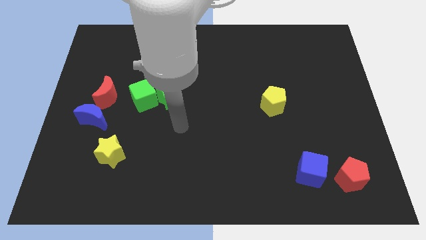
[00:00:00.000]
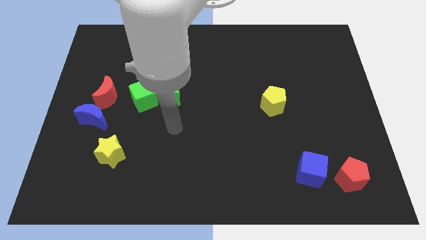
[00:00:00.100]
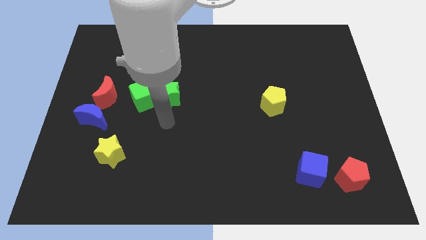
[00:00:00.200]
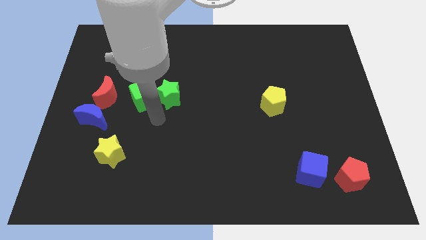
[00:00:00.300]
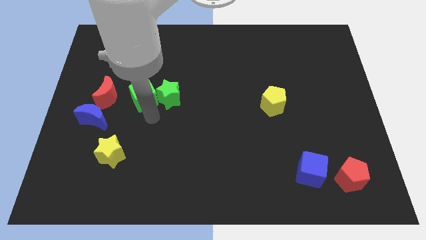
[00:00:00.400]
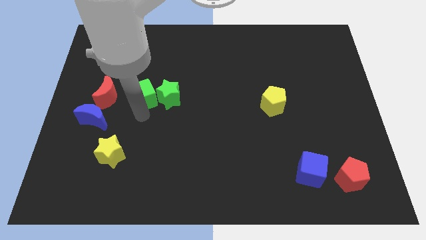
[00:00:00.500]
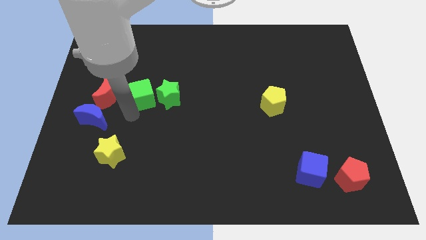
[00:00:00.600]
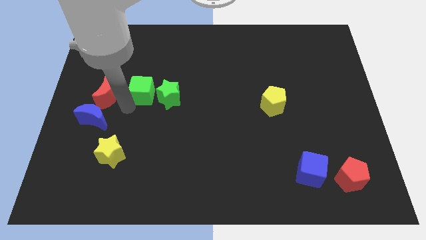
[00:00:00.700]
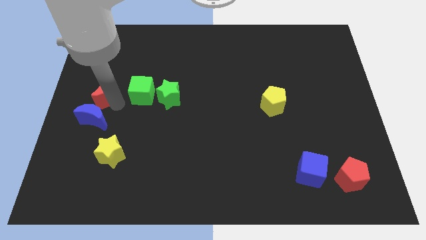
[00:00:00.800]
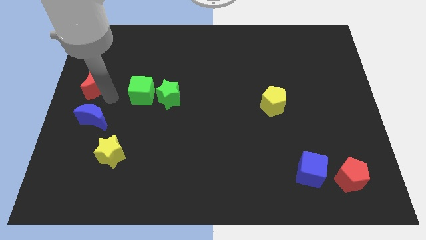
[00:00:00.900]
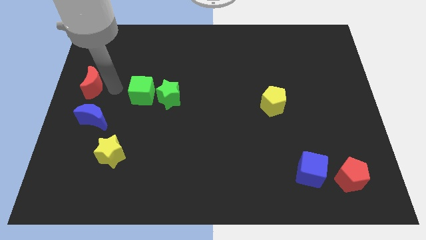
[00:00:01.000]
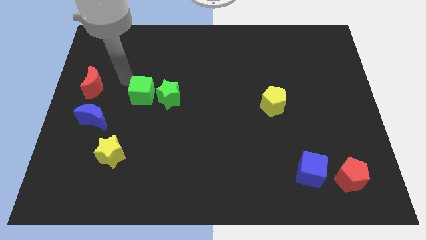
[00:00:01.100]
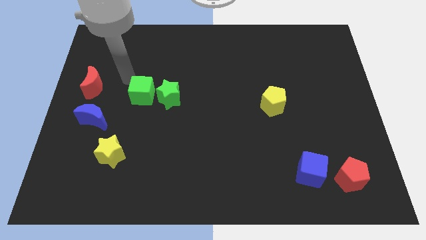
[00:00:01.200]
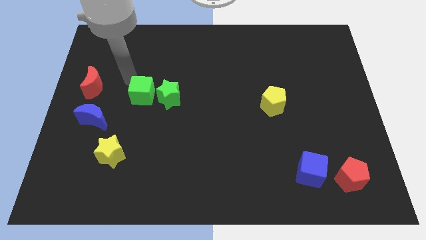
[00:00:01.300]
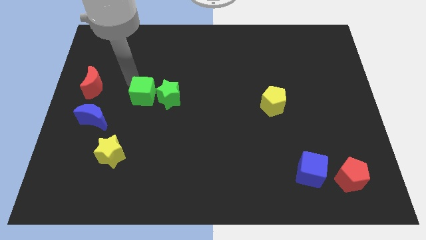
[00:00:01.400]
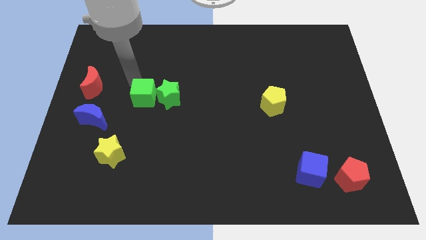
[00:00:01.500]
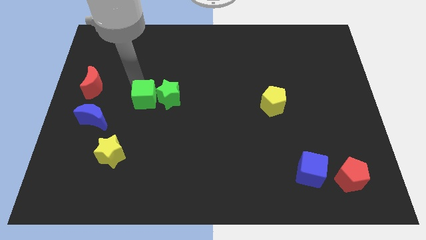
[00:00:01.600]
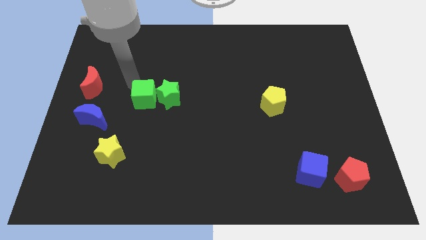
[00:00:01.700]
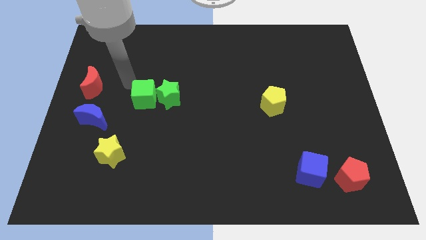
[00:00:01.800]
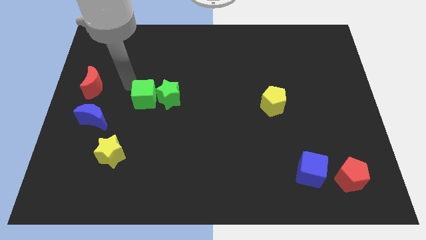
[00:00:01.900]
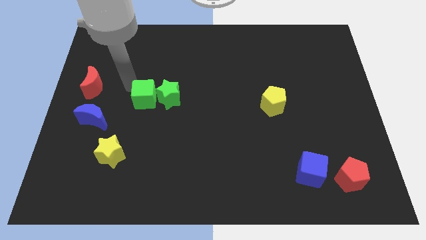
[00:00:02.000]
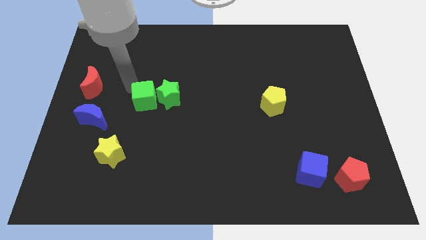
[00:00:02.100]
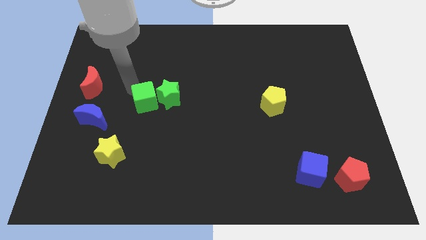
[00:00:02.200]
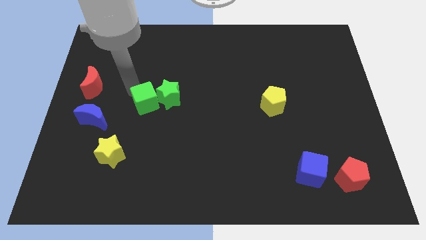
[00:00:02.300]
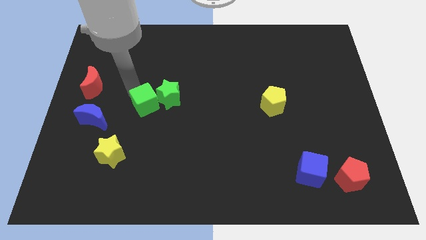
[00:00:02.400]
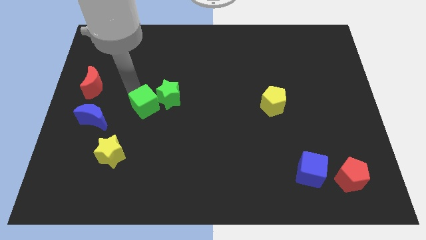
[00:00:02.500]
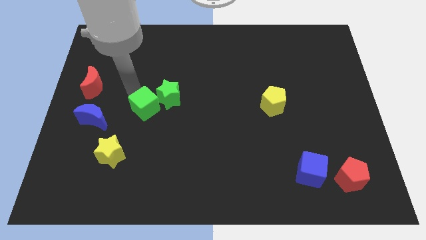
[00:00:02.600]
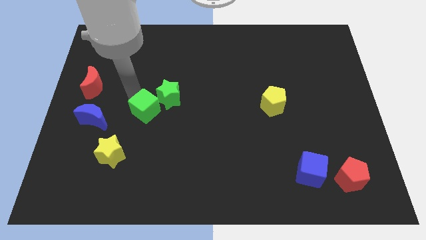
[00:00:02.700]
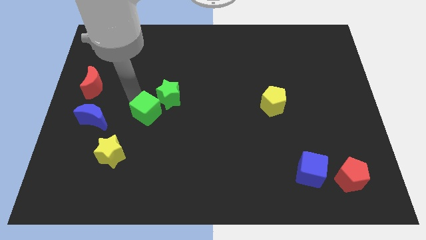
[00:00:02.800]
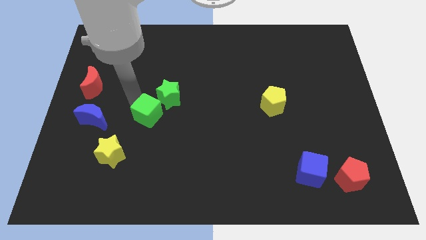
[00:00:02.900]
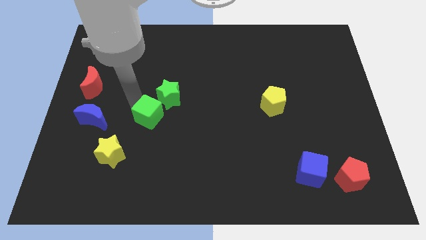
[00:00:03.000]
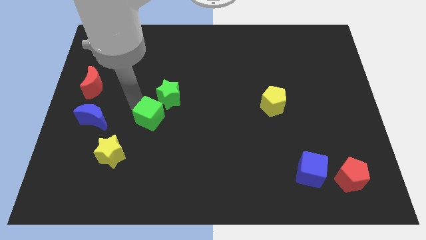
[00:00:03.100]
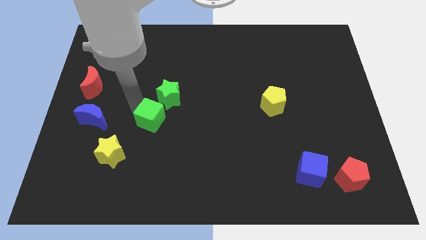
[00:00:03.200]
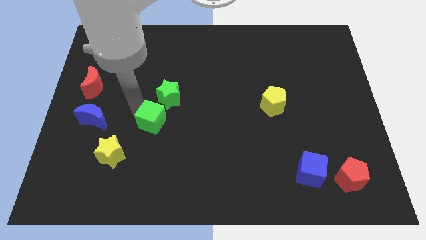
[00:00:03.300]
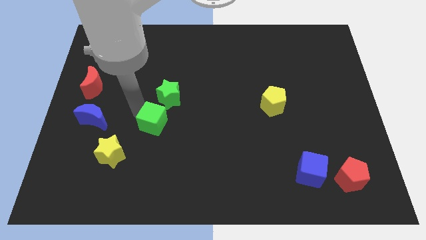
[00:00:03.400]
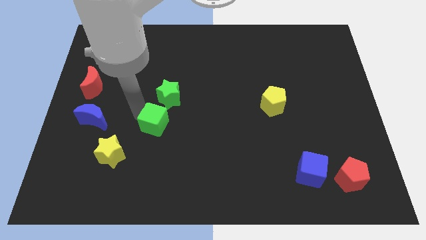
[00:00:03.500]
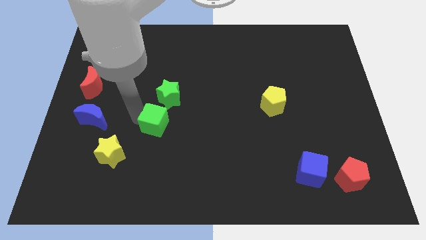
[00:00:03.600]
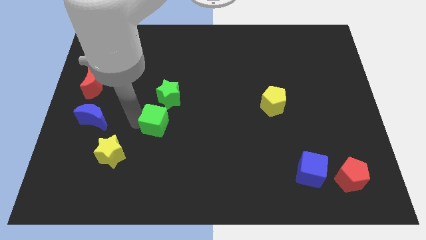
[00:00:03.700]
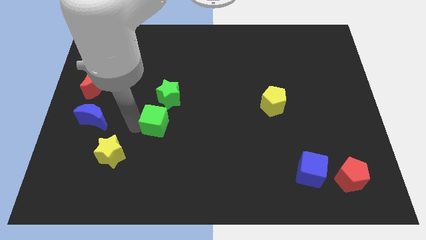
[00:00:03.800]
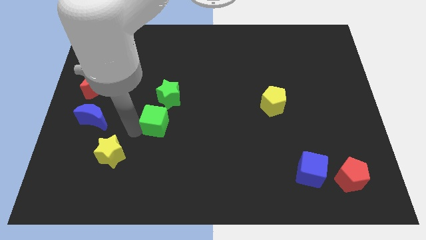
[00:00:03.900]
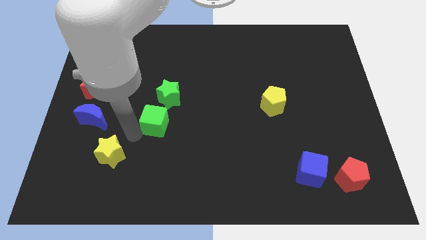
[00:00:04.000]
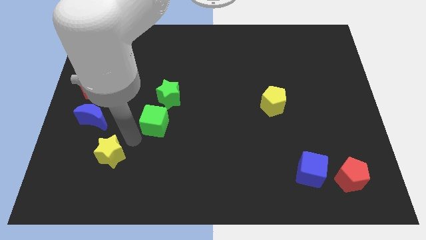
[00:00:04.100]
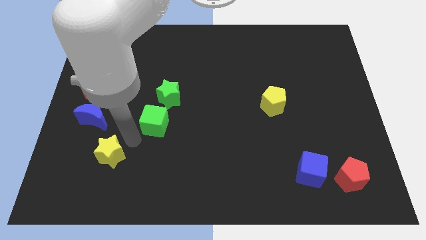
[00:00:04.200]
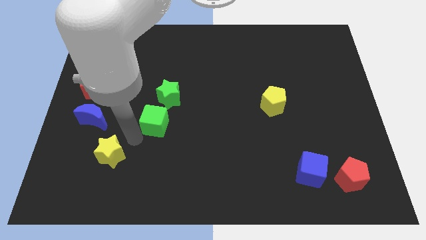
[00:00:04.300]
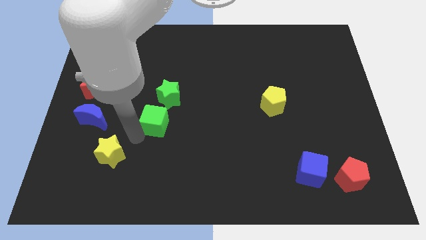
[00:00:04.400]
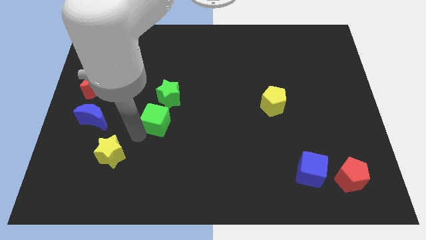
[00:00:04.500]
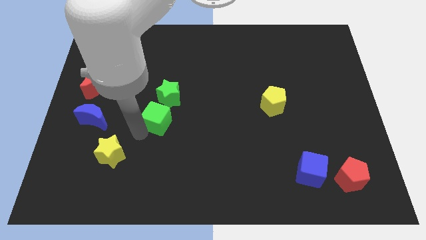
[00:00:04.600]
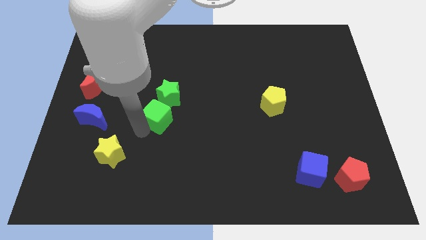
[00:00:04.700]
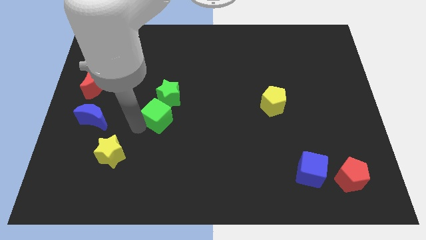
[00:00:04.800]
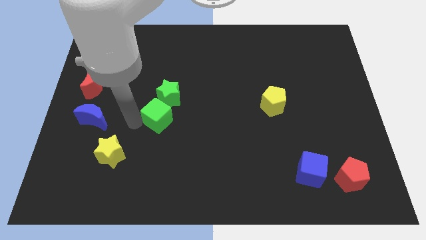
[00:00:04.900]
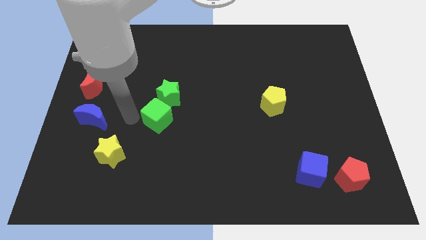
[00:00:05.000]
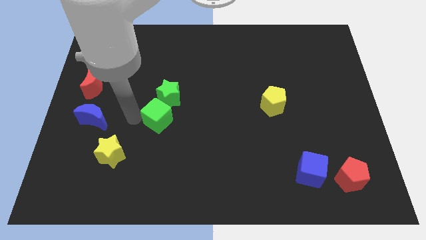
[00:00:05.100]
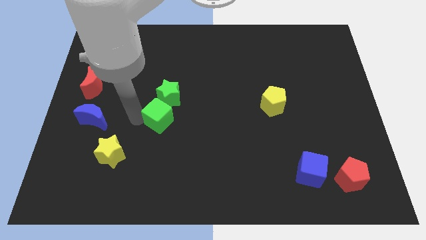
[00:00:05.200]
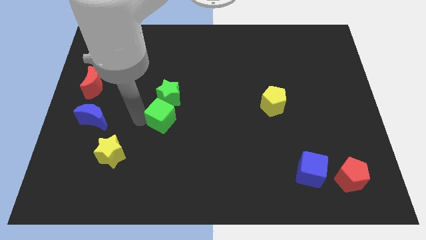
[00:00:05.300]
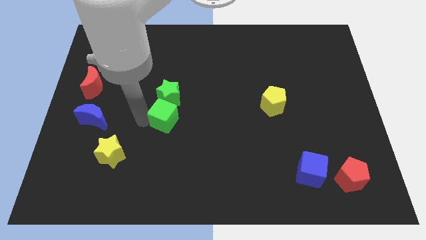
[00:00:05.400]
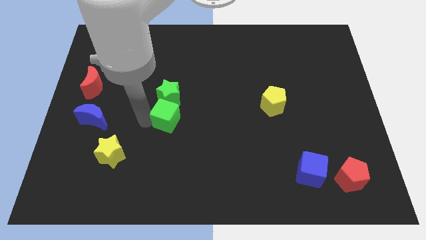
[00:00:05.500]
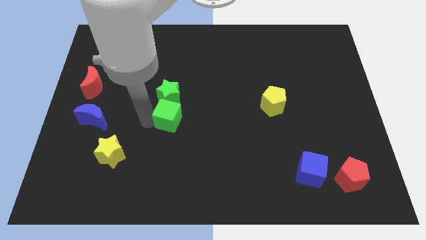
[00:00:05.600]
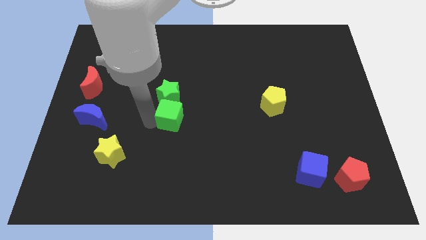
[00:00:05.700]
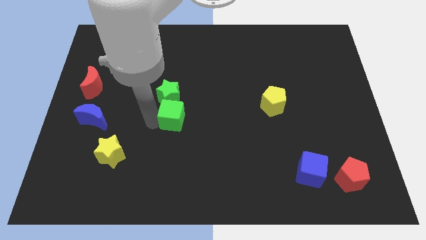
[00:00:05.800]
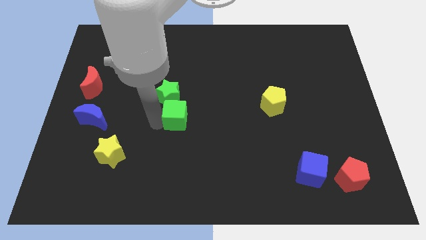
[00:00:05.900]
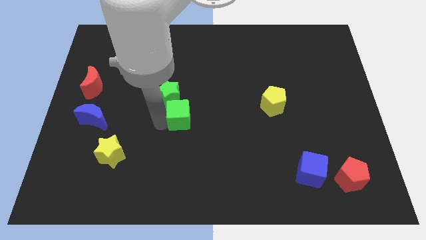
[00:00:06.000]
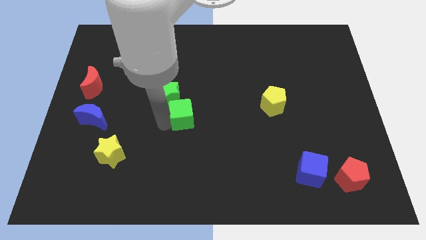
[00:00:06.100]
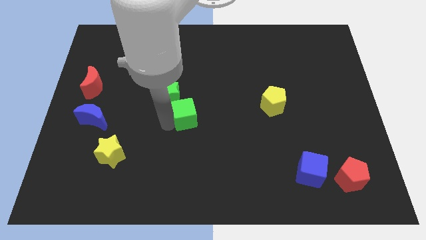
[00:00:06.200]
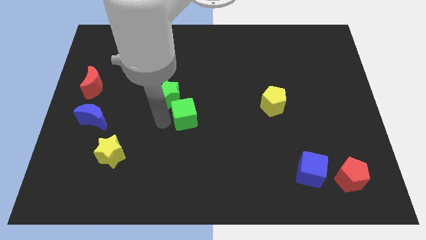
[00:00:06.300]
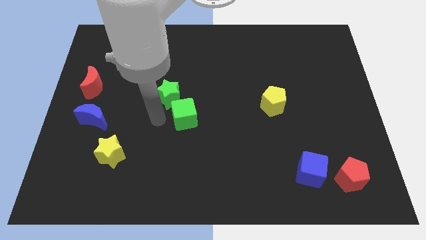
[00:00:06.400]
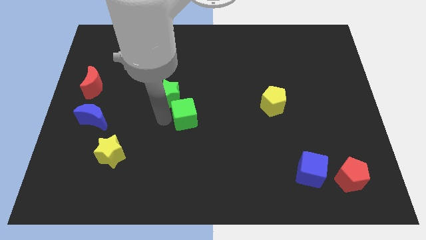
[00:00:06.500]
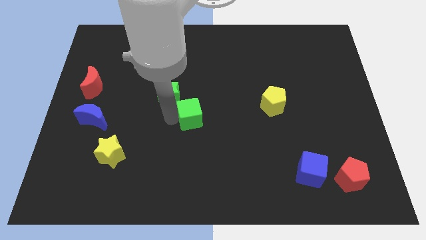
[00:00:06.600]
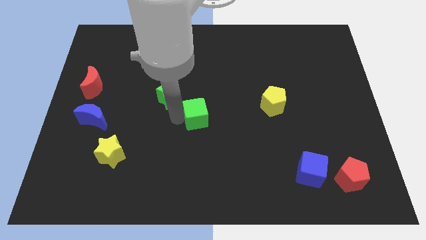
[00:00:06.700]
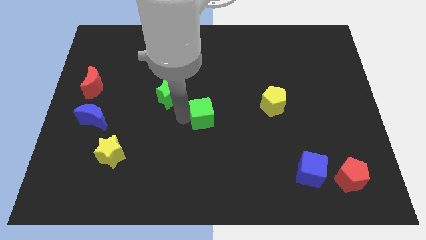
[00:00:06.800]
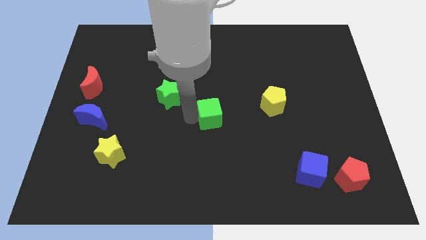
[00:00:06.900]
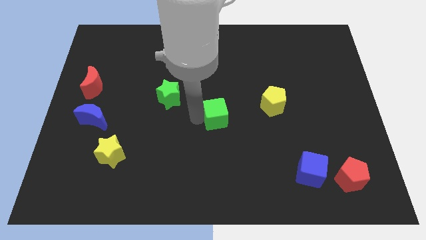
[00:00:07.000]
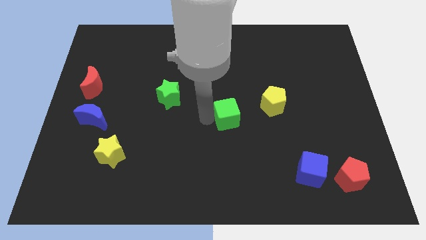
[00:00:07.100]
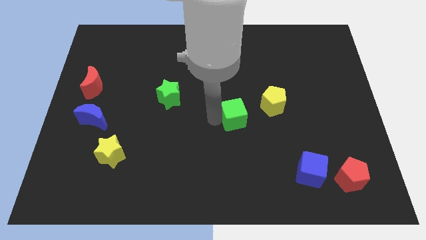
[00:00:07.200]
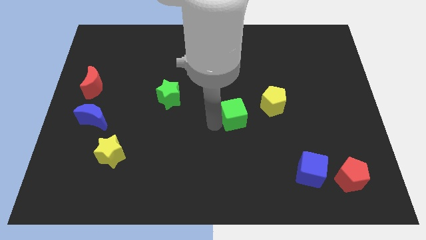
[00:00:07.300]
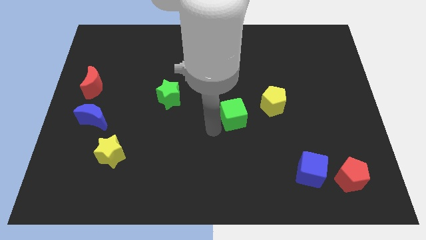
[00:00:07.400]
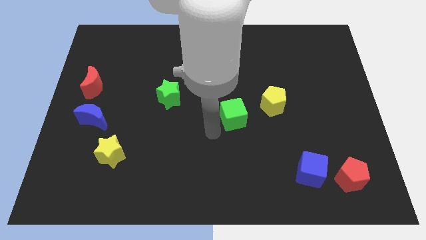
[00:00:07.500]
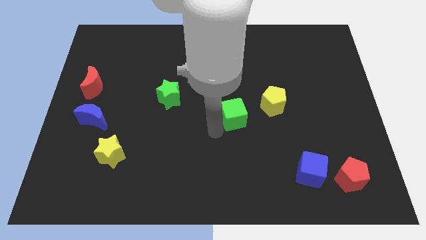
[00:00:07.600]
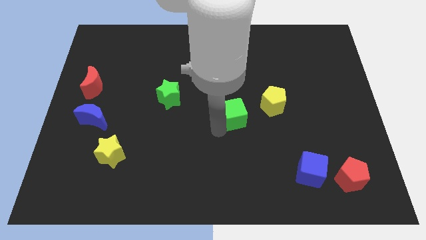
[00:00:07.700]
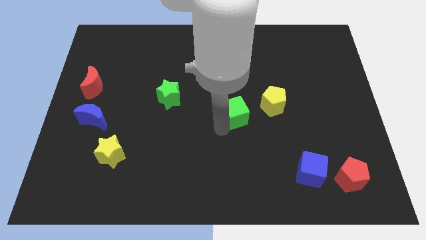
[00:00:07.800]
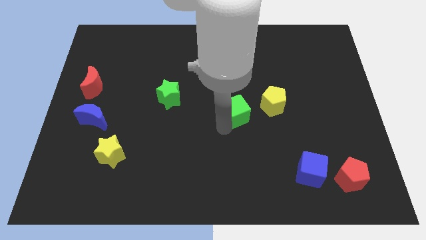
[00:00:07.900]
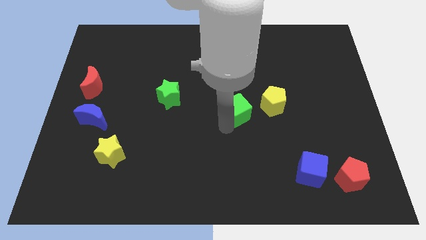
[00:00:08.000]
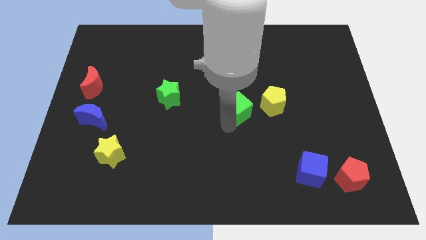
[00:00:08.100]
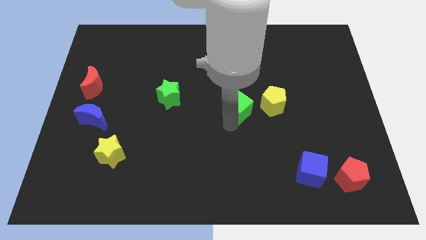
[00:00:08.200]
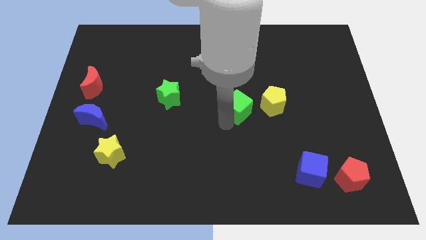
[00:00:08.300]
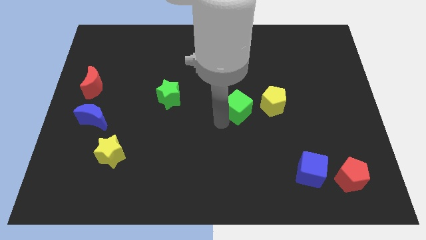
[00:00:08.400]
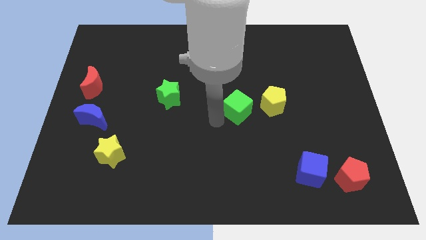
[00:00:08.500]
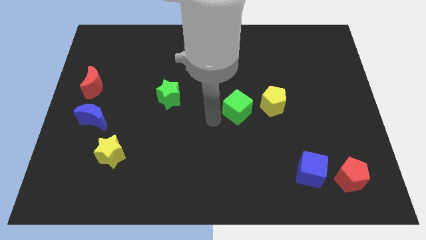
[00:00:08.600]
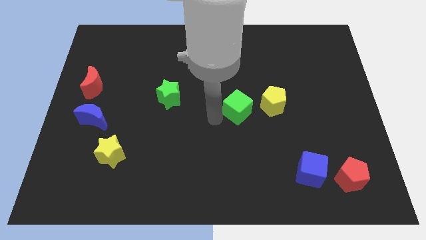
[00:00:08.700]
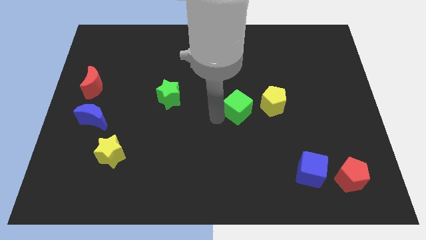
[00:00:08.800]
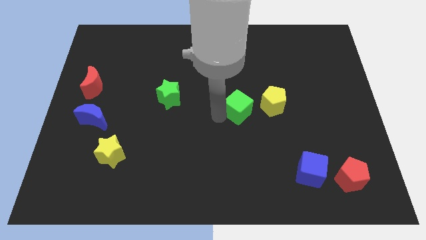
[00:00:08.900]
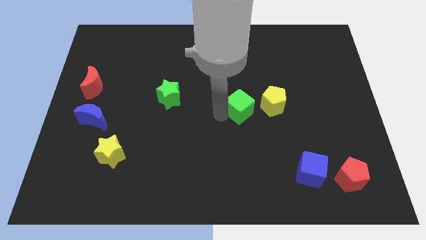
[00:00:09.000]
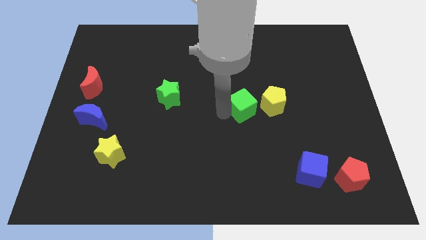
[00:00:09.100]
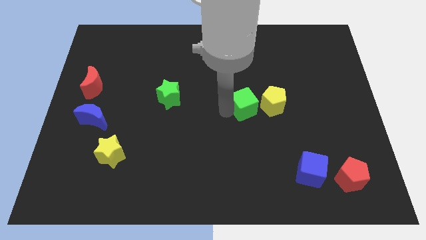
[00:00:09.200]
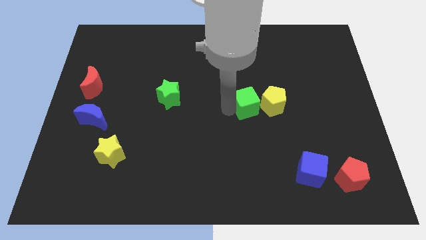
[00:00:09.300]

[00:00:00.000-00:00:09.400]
slide the green cube to the yellow pentagon
